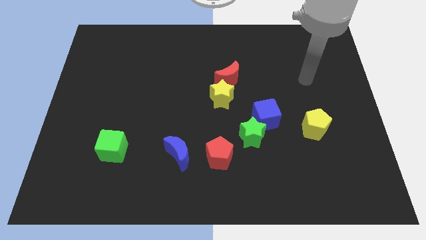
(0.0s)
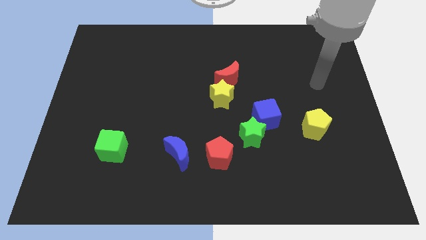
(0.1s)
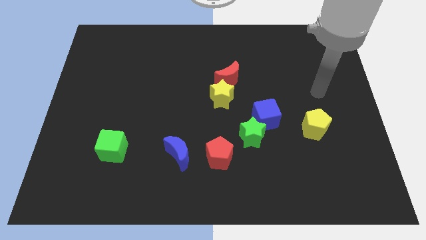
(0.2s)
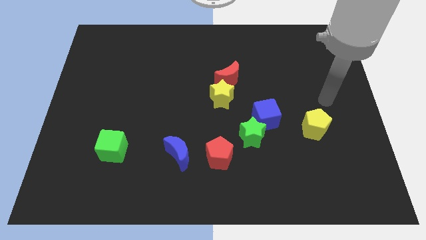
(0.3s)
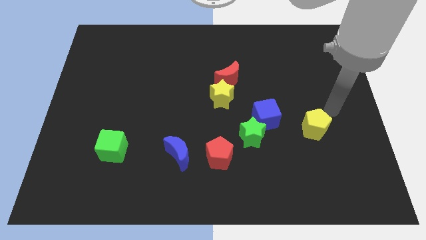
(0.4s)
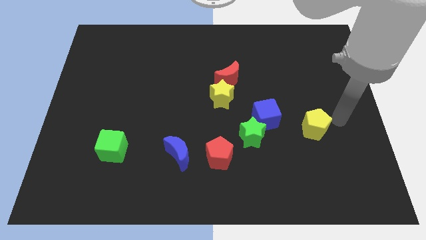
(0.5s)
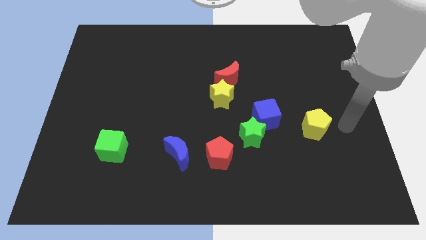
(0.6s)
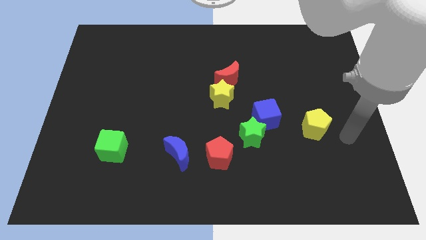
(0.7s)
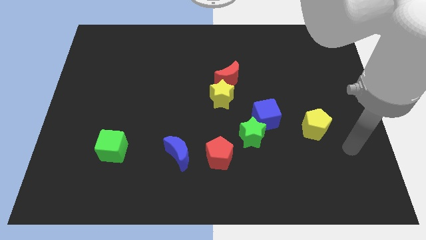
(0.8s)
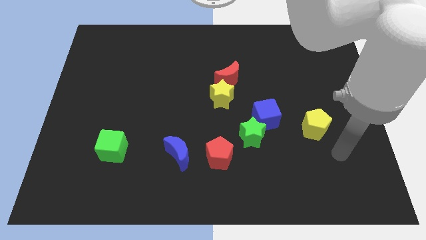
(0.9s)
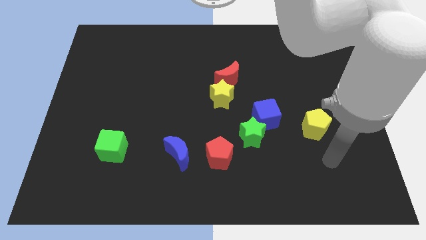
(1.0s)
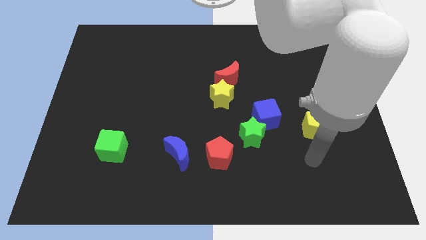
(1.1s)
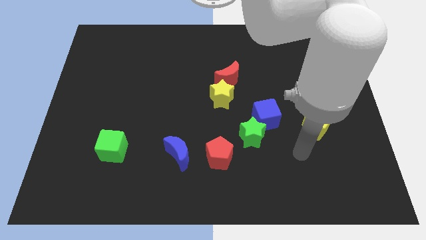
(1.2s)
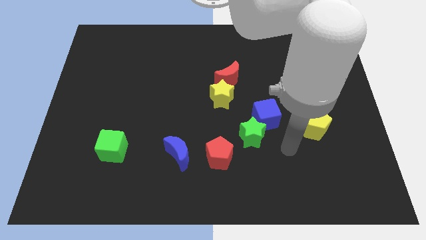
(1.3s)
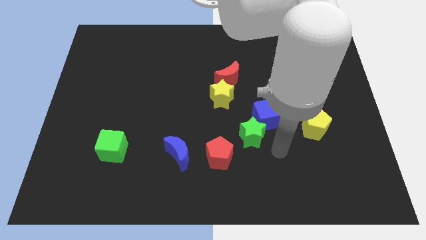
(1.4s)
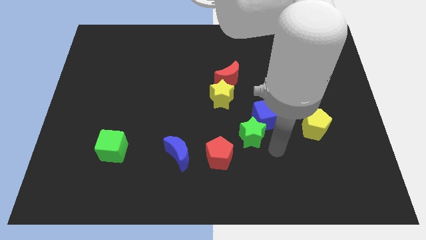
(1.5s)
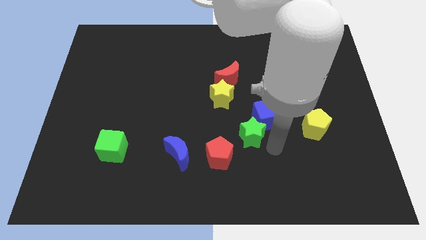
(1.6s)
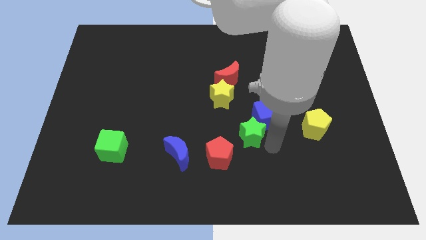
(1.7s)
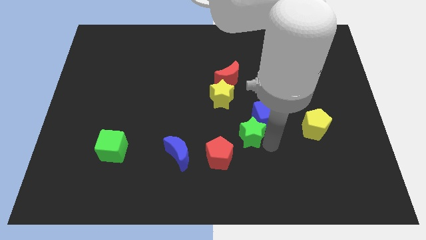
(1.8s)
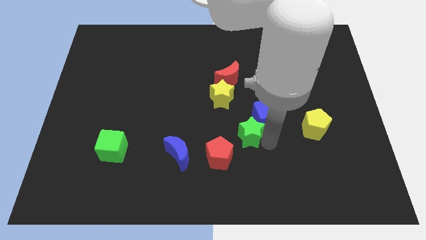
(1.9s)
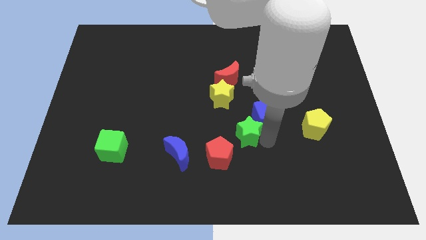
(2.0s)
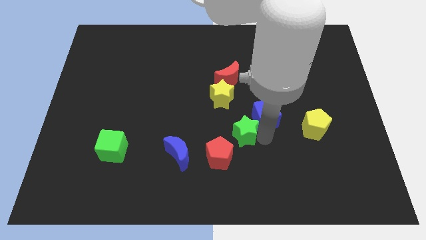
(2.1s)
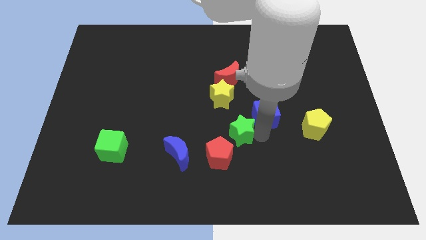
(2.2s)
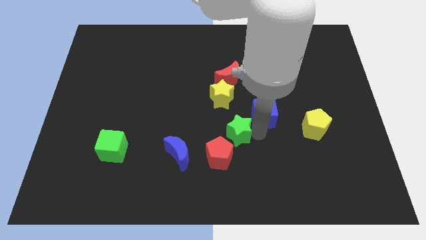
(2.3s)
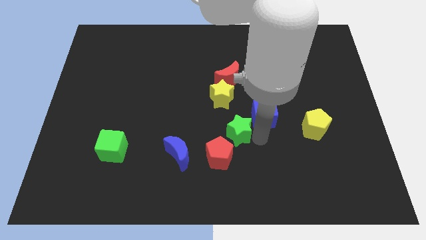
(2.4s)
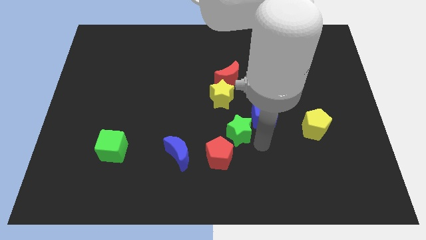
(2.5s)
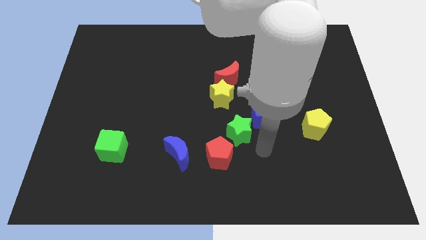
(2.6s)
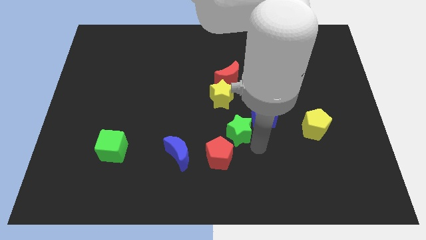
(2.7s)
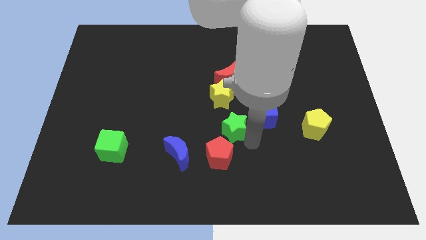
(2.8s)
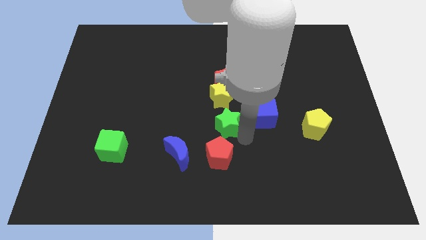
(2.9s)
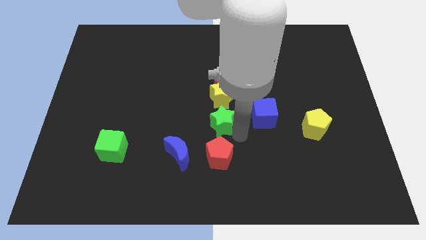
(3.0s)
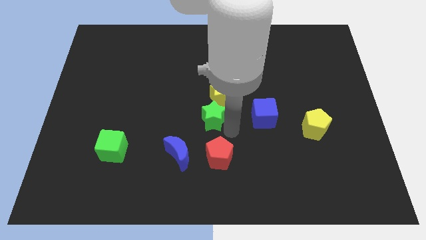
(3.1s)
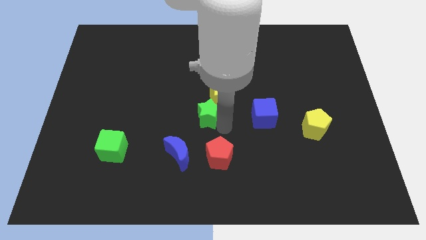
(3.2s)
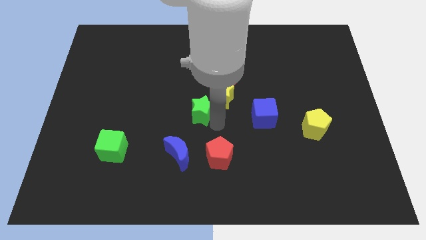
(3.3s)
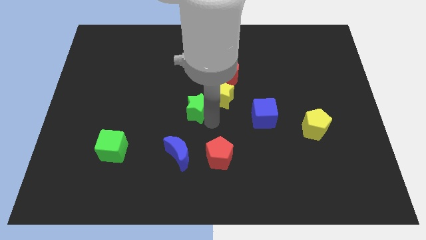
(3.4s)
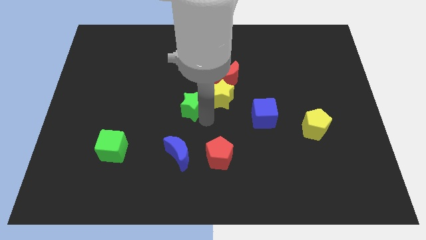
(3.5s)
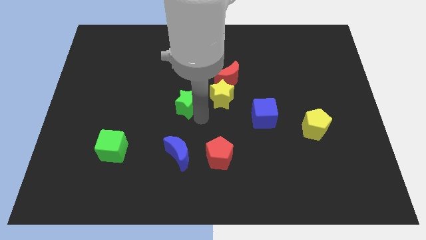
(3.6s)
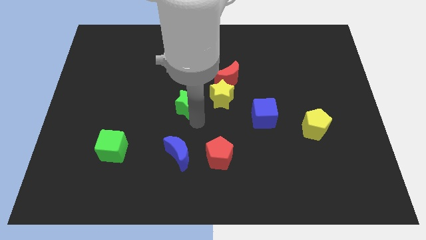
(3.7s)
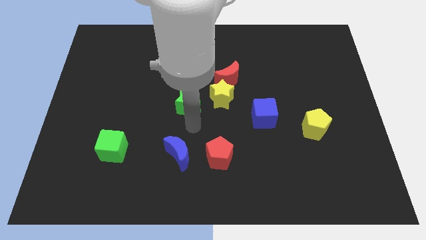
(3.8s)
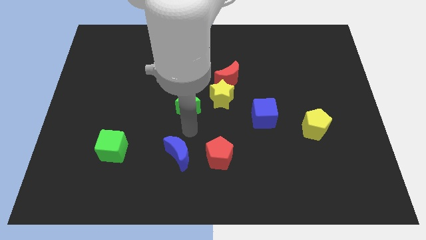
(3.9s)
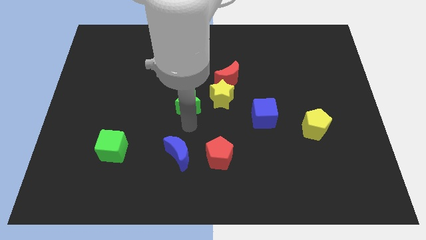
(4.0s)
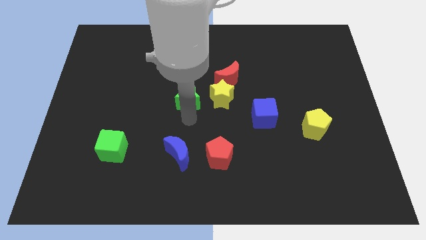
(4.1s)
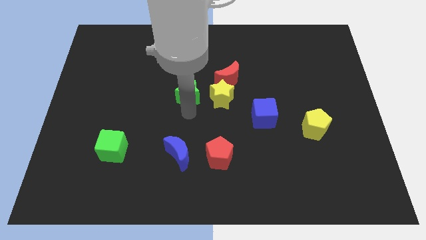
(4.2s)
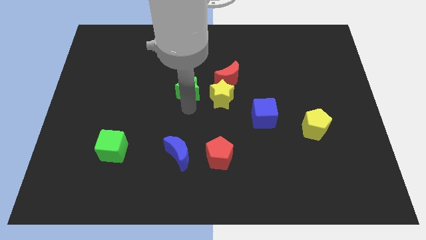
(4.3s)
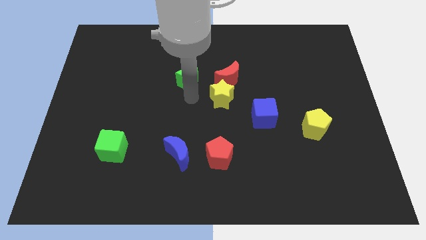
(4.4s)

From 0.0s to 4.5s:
push the green star upwards and left

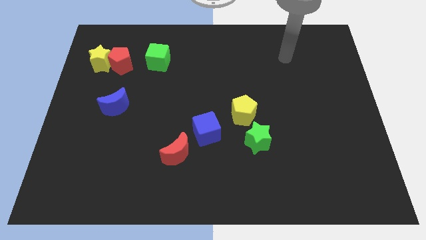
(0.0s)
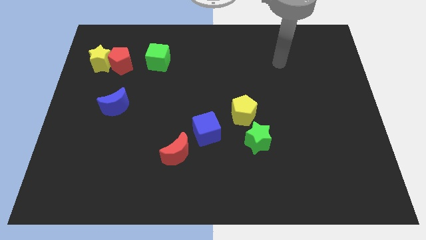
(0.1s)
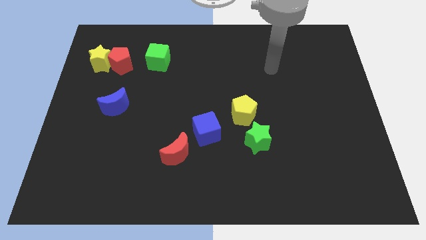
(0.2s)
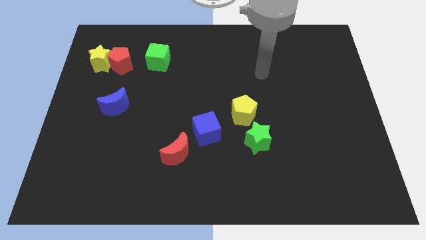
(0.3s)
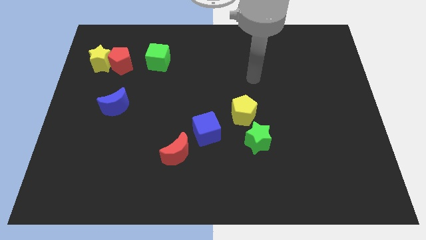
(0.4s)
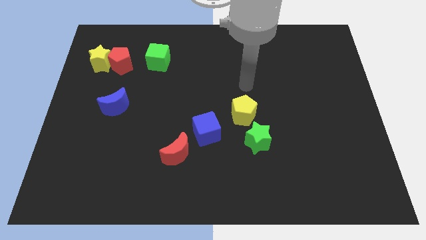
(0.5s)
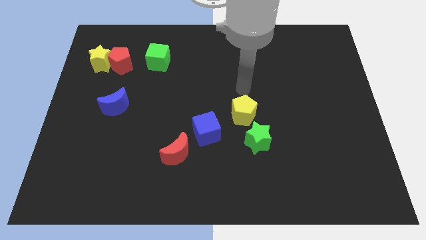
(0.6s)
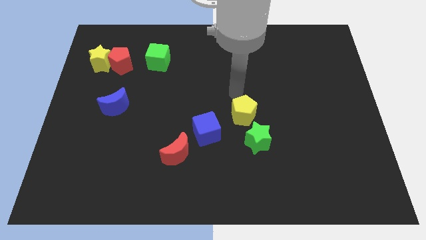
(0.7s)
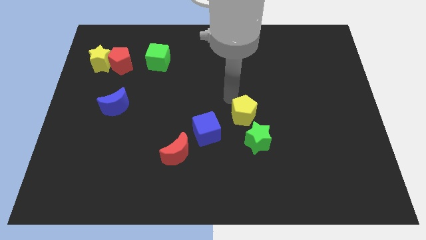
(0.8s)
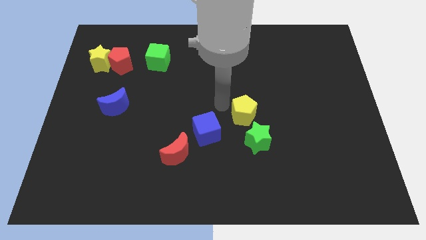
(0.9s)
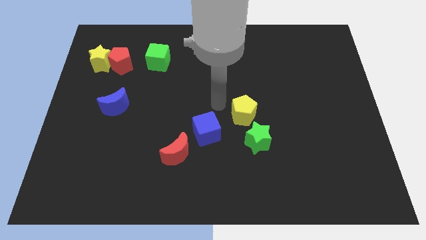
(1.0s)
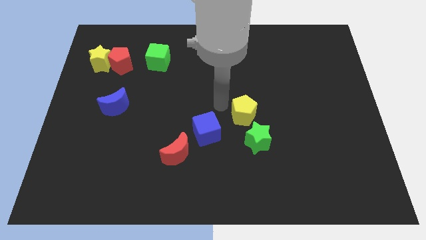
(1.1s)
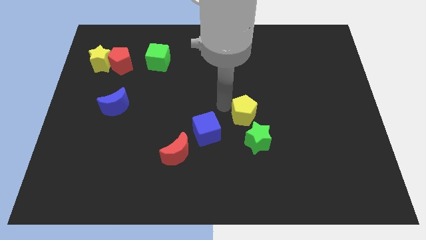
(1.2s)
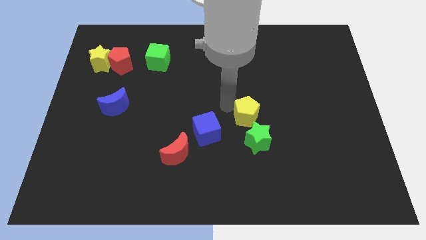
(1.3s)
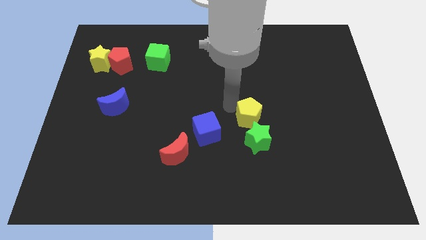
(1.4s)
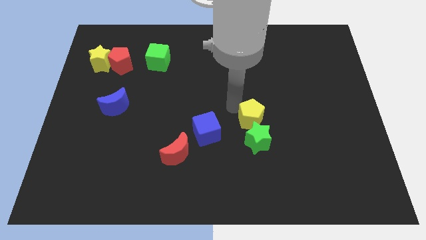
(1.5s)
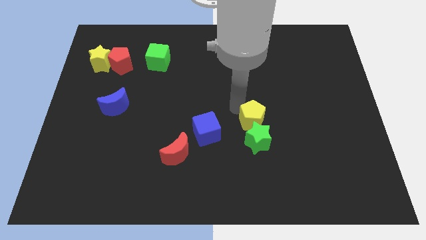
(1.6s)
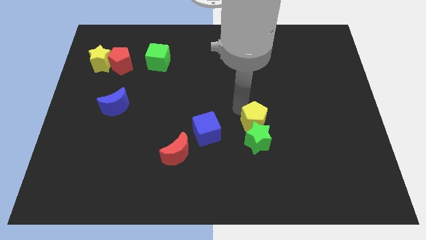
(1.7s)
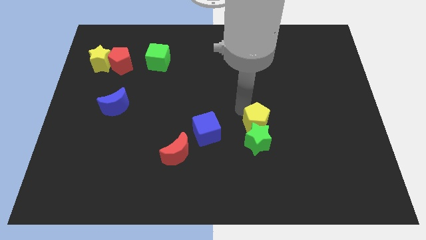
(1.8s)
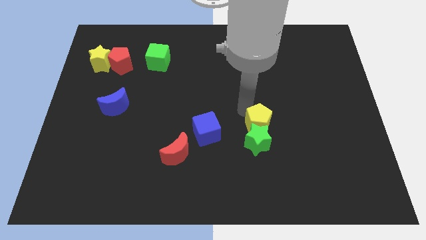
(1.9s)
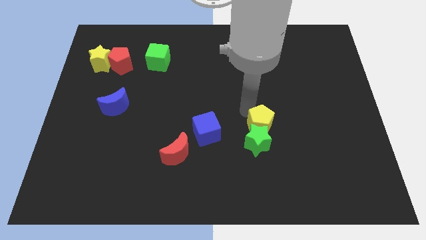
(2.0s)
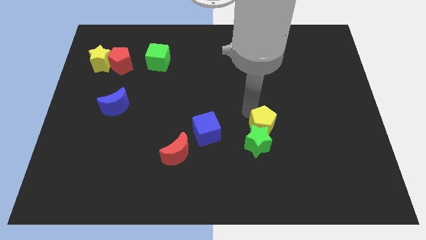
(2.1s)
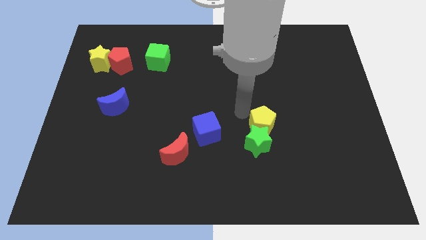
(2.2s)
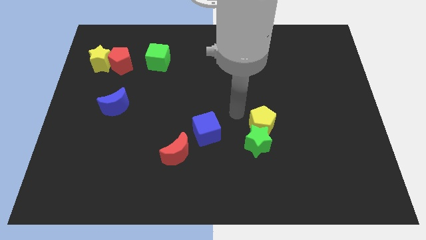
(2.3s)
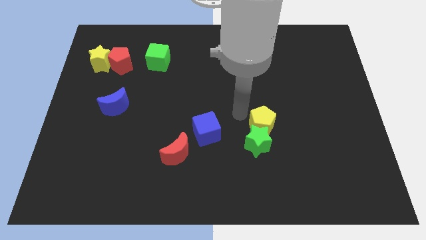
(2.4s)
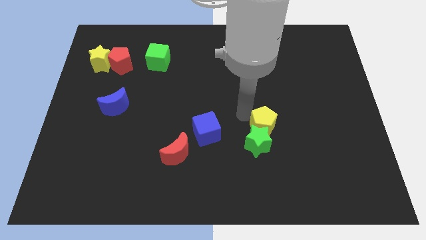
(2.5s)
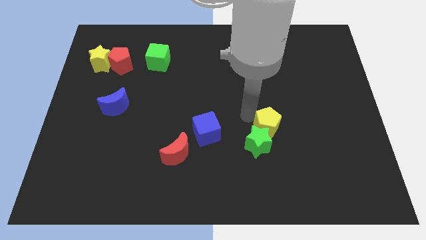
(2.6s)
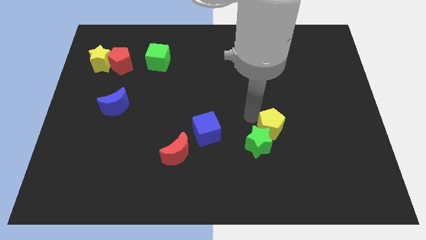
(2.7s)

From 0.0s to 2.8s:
move the yellow pentagon diagonally downwards and right somewhat

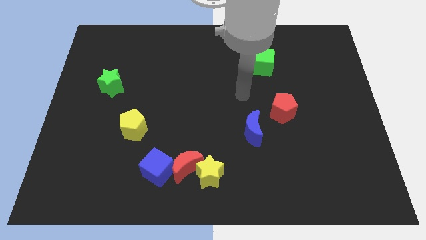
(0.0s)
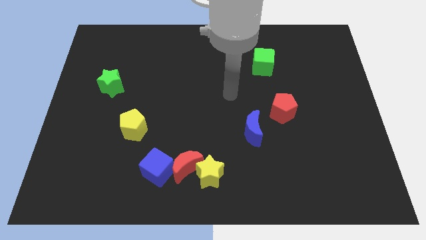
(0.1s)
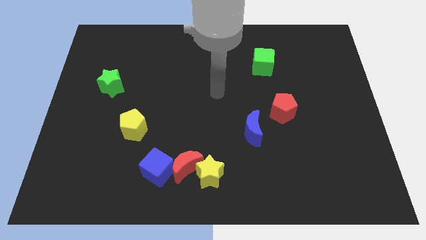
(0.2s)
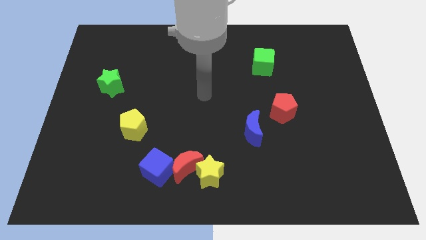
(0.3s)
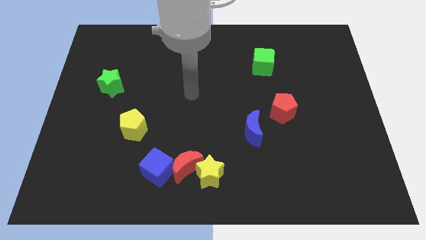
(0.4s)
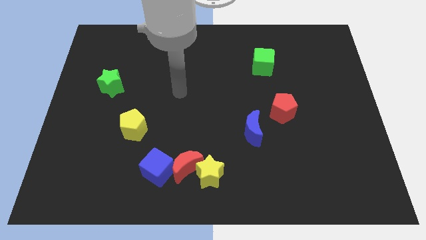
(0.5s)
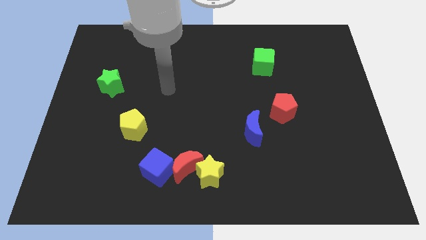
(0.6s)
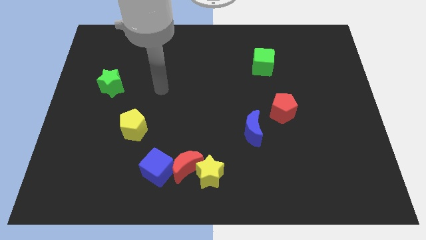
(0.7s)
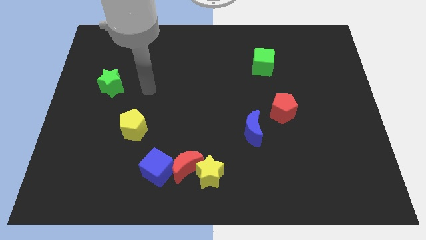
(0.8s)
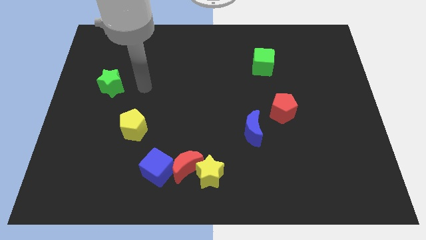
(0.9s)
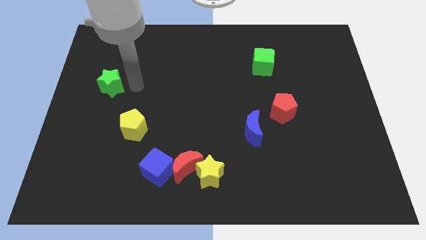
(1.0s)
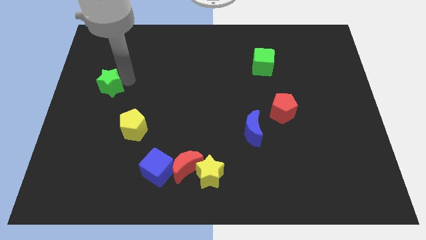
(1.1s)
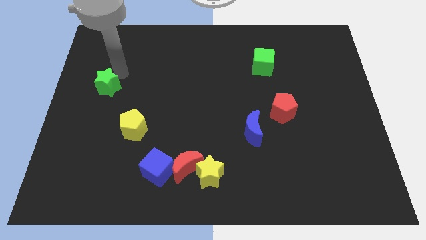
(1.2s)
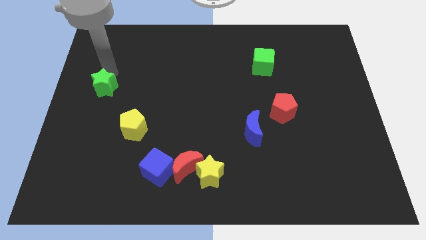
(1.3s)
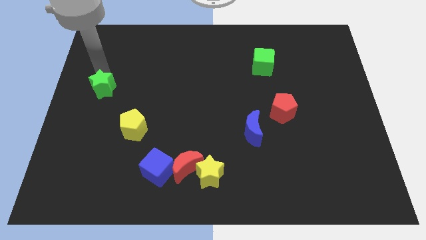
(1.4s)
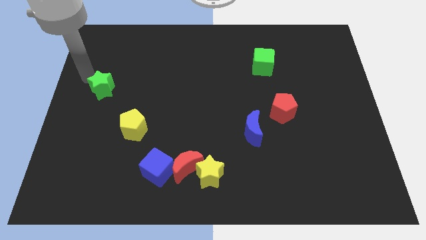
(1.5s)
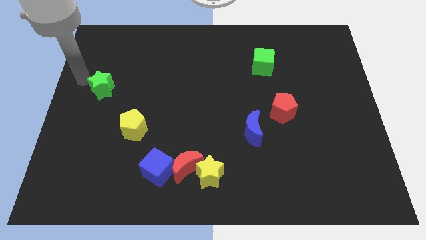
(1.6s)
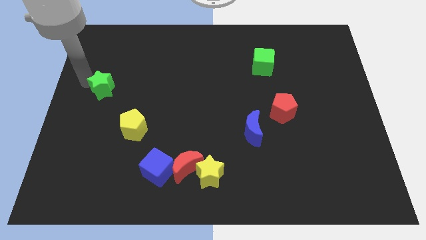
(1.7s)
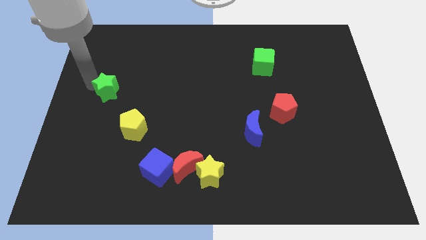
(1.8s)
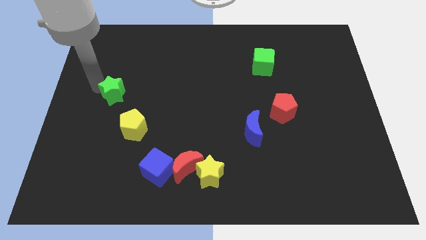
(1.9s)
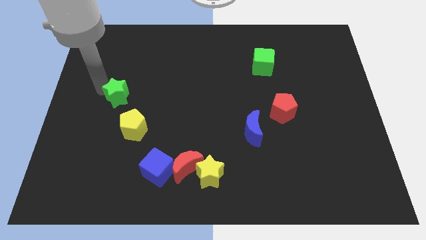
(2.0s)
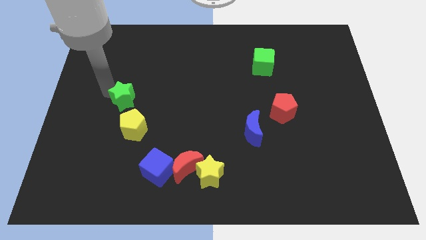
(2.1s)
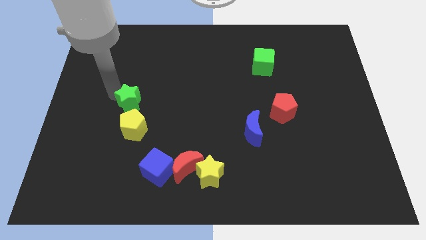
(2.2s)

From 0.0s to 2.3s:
push the green star slightly down and right
